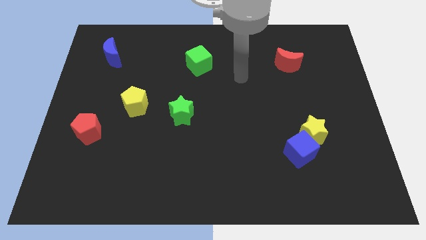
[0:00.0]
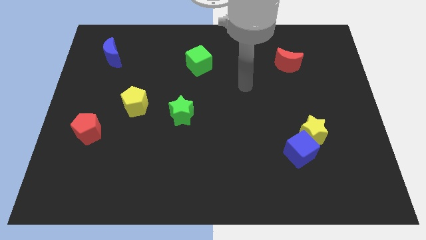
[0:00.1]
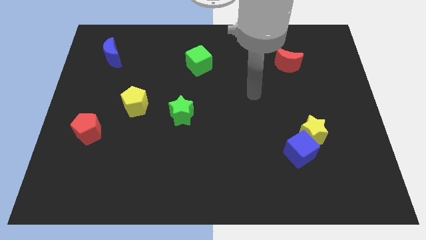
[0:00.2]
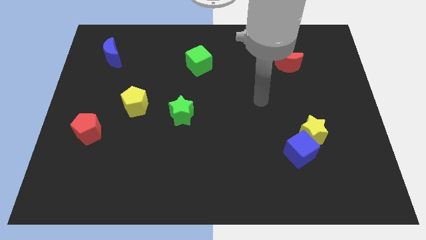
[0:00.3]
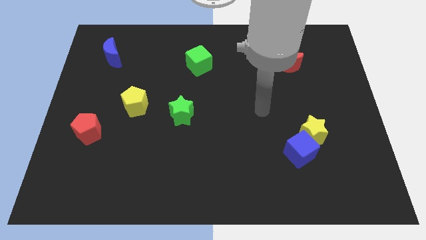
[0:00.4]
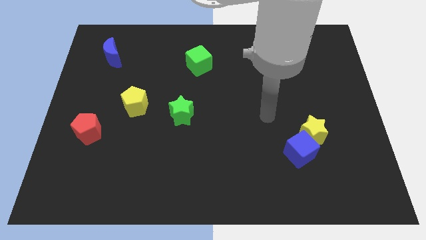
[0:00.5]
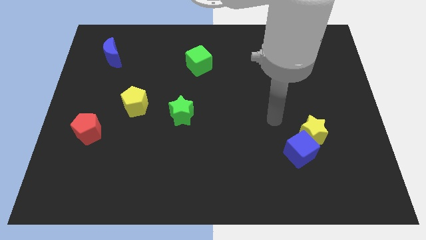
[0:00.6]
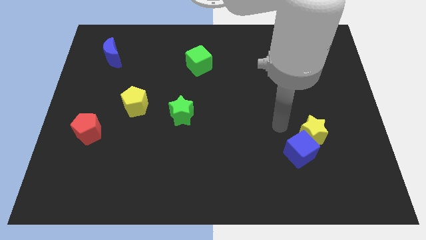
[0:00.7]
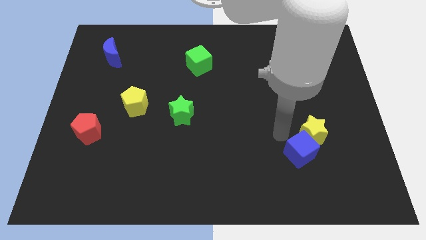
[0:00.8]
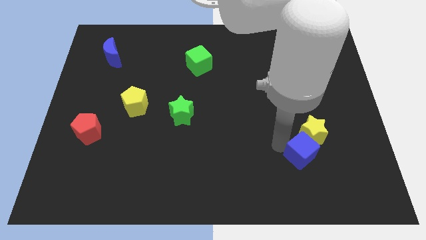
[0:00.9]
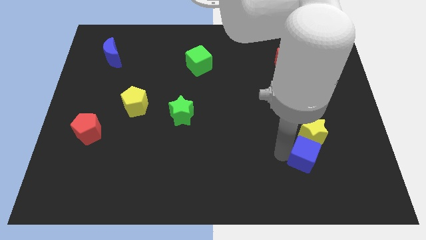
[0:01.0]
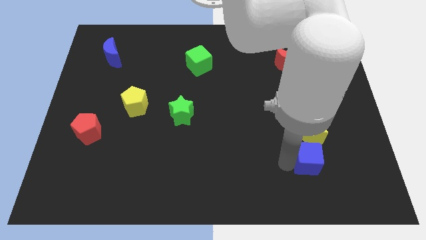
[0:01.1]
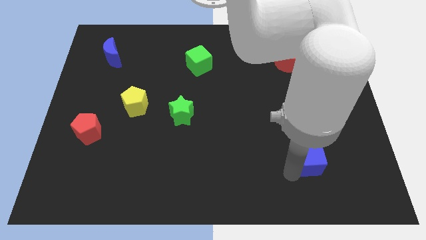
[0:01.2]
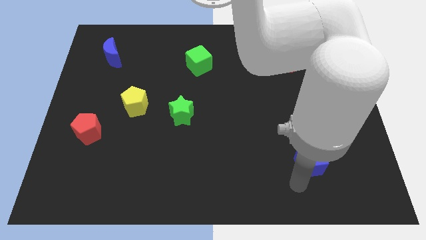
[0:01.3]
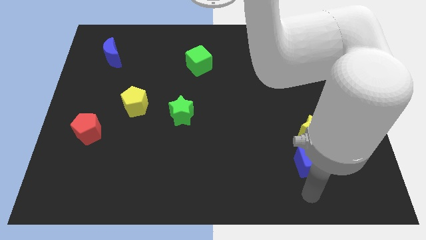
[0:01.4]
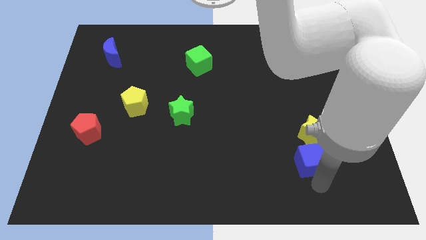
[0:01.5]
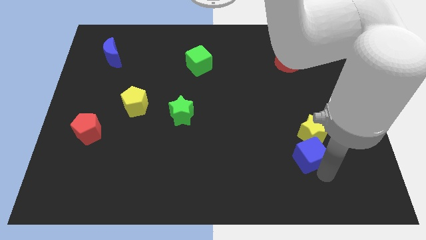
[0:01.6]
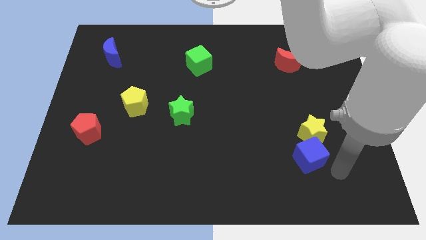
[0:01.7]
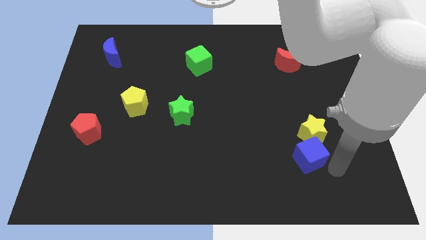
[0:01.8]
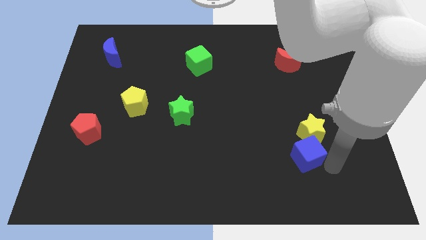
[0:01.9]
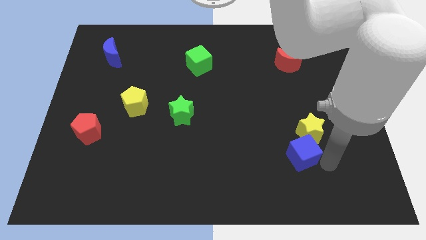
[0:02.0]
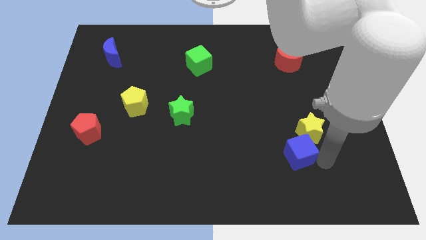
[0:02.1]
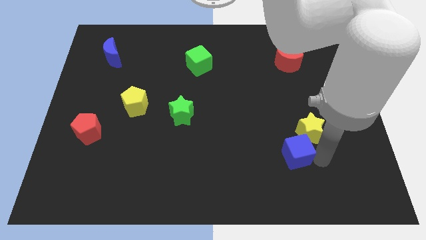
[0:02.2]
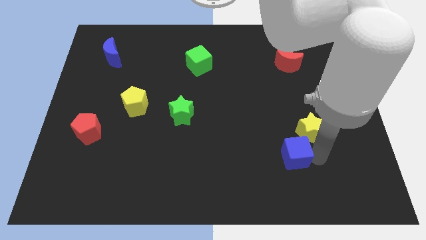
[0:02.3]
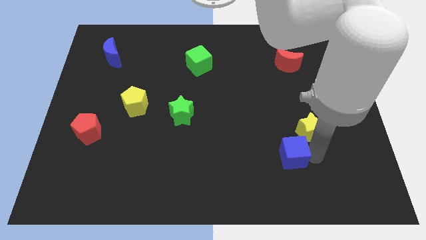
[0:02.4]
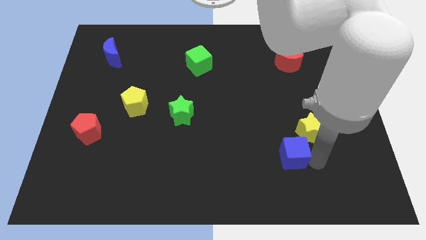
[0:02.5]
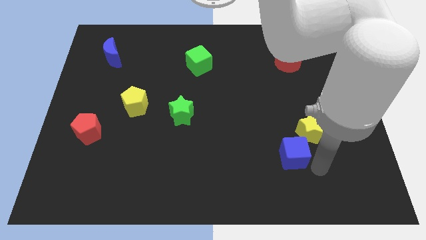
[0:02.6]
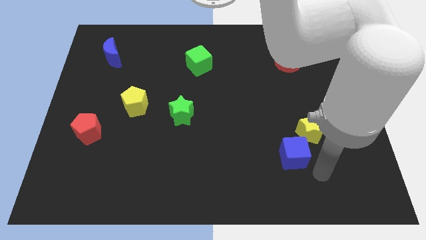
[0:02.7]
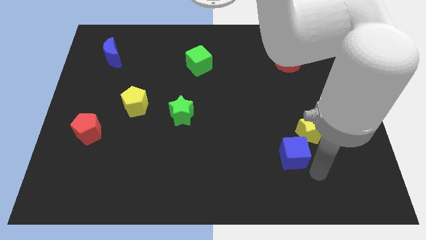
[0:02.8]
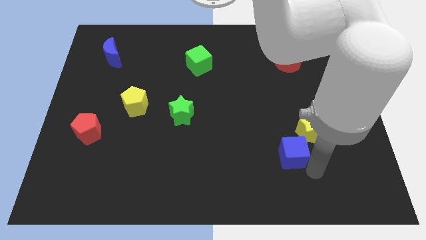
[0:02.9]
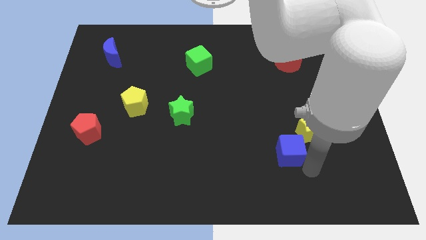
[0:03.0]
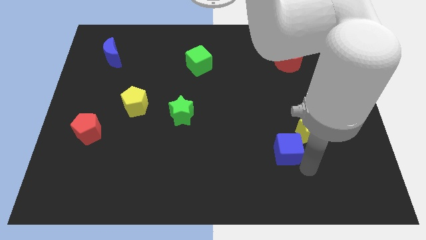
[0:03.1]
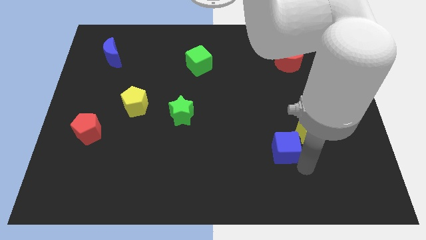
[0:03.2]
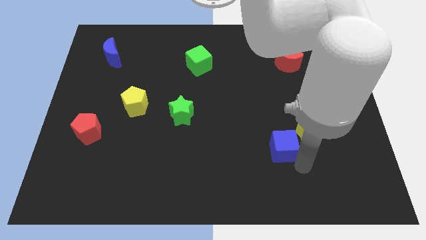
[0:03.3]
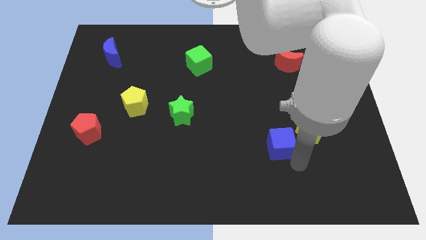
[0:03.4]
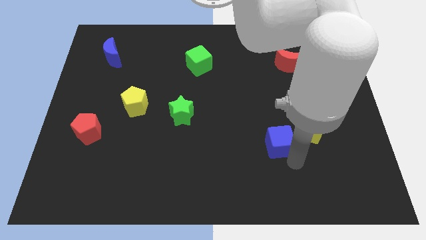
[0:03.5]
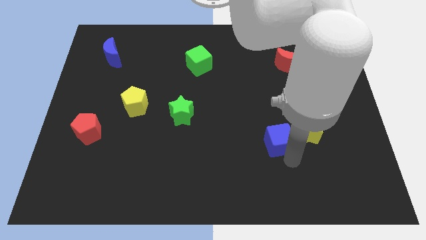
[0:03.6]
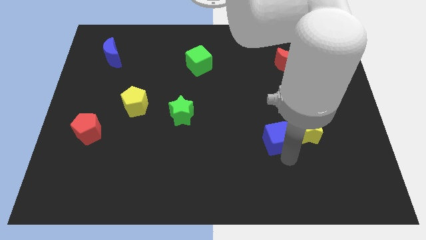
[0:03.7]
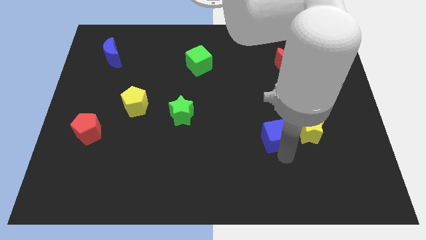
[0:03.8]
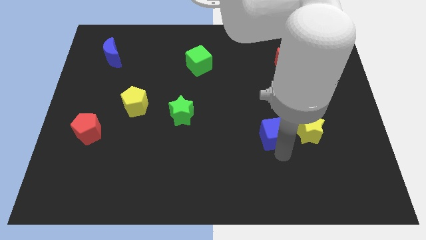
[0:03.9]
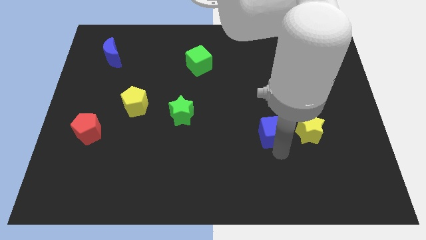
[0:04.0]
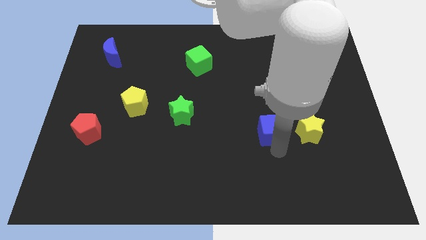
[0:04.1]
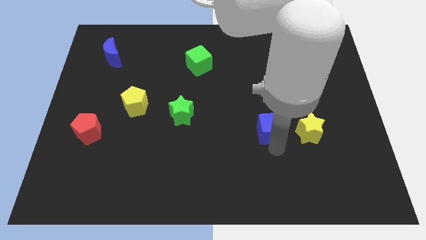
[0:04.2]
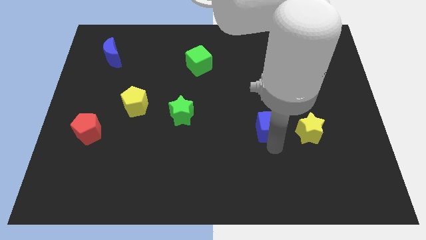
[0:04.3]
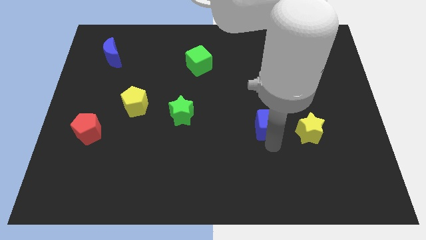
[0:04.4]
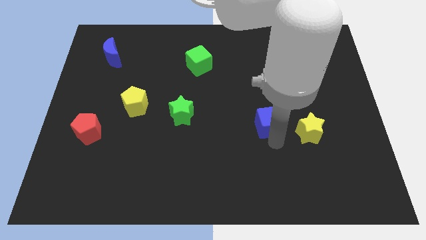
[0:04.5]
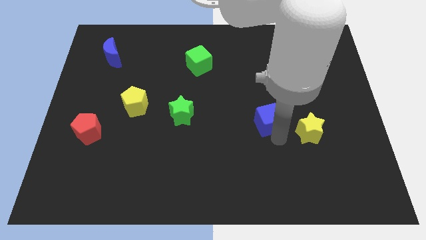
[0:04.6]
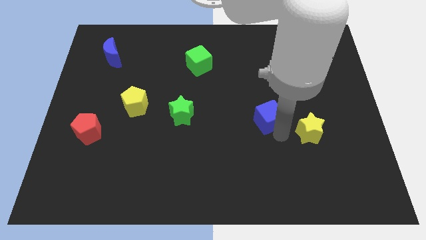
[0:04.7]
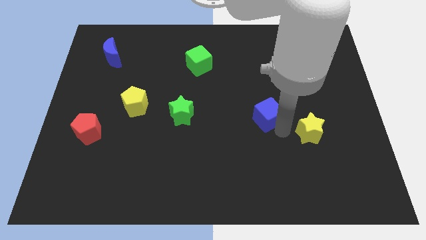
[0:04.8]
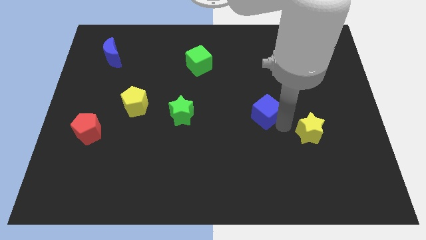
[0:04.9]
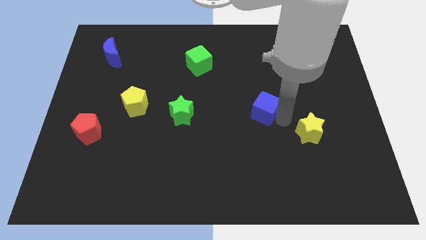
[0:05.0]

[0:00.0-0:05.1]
push the blue cube to the middle of the board
